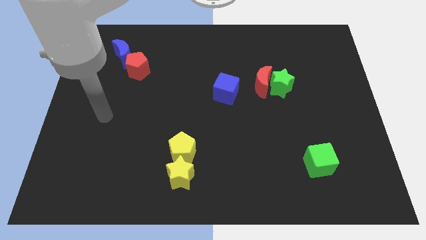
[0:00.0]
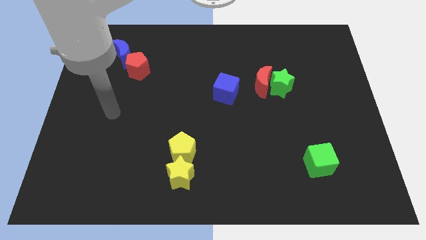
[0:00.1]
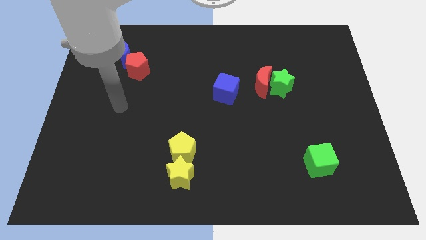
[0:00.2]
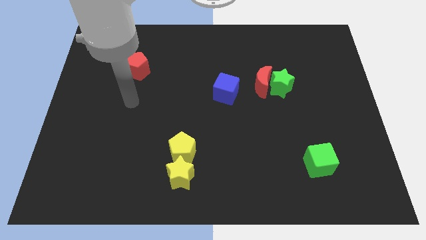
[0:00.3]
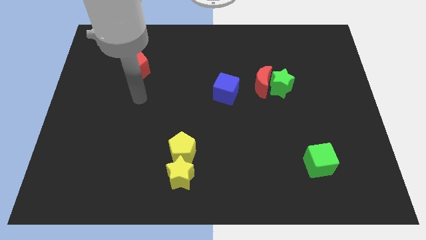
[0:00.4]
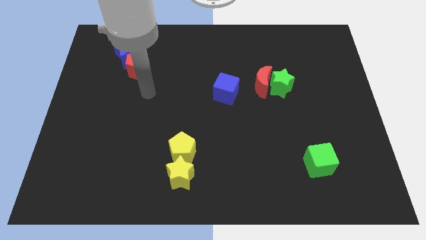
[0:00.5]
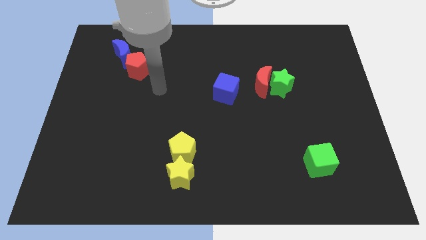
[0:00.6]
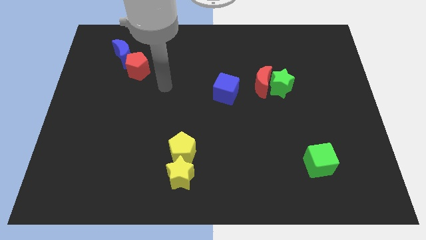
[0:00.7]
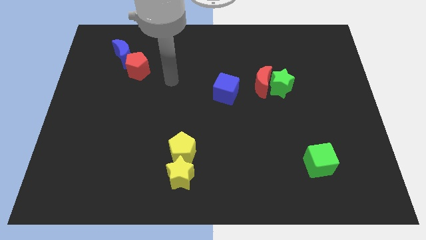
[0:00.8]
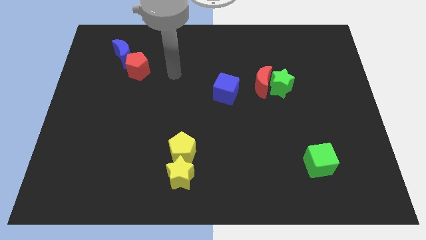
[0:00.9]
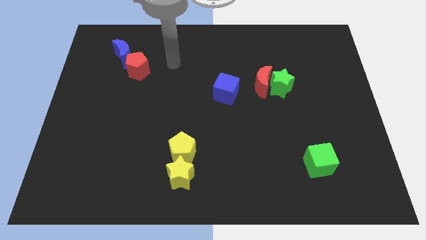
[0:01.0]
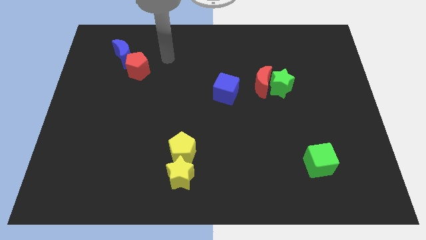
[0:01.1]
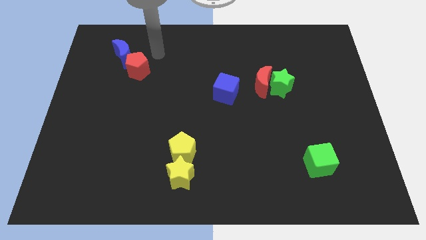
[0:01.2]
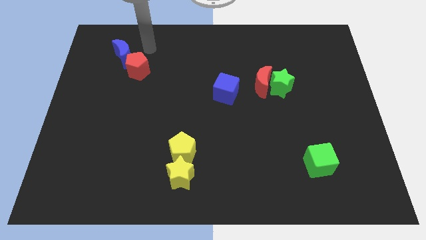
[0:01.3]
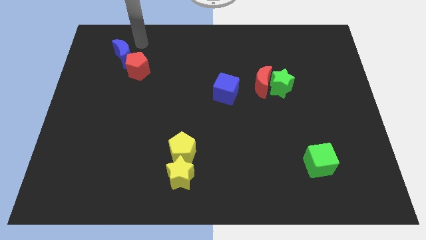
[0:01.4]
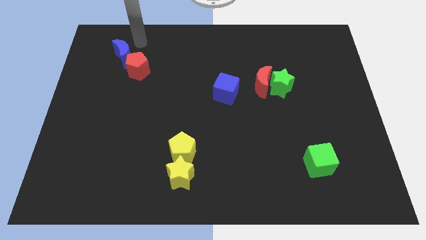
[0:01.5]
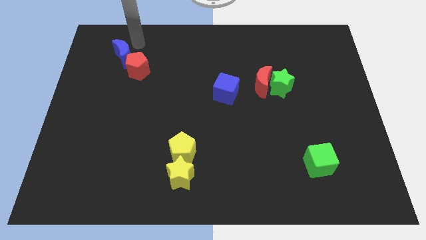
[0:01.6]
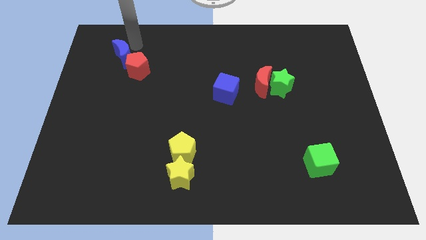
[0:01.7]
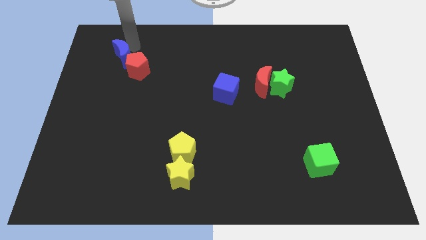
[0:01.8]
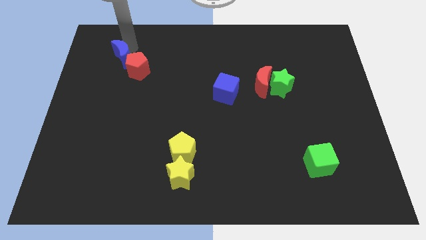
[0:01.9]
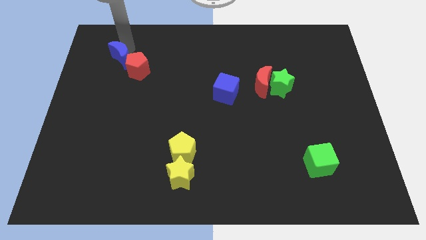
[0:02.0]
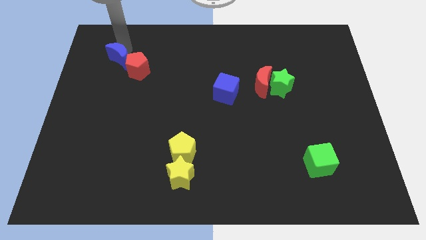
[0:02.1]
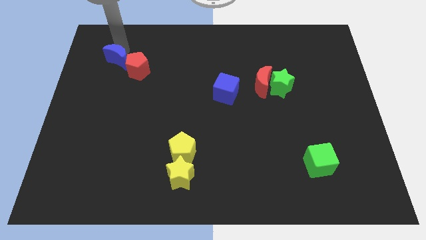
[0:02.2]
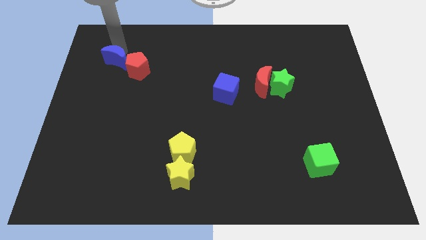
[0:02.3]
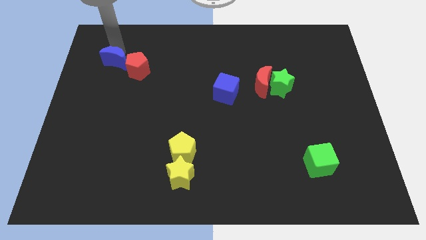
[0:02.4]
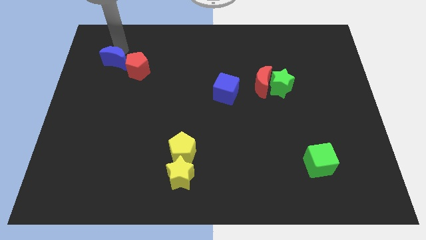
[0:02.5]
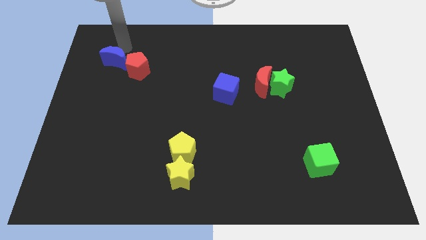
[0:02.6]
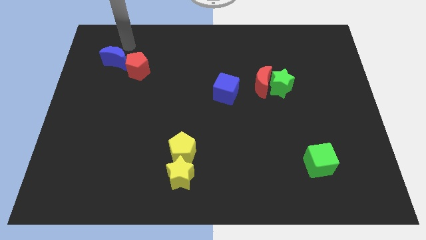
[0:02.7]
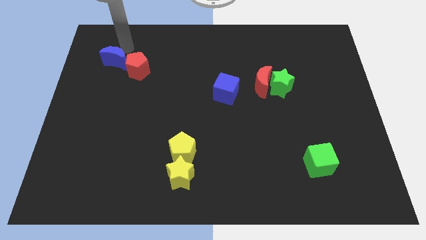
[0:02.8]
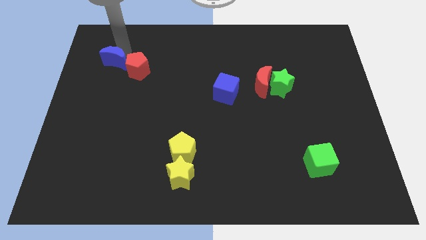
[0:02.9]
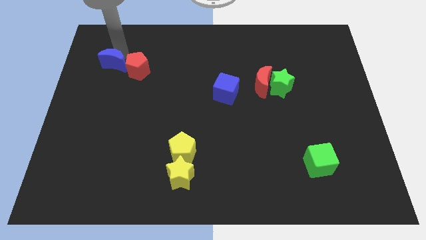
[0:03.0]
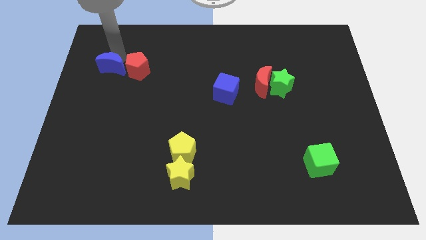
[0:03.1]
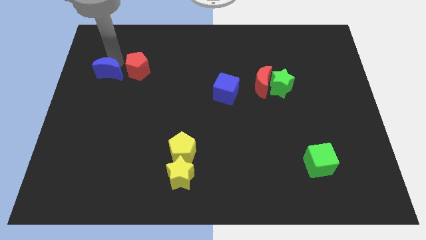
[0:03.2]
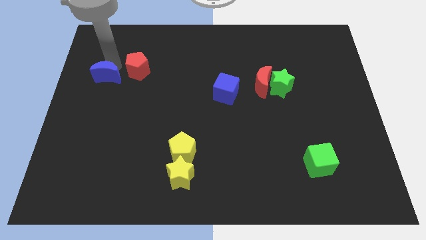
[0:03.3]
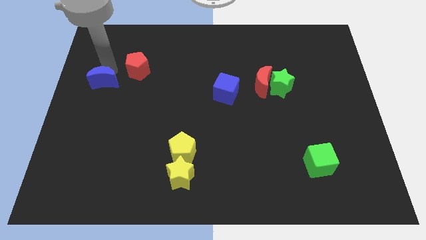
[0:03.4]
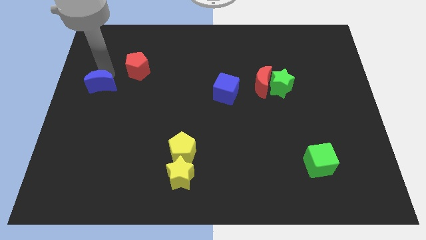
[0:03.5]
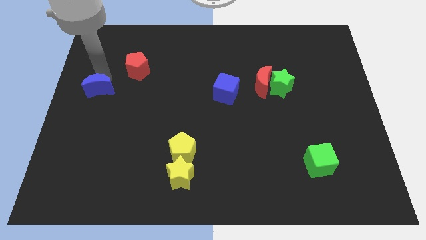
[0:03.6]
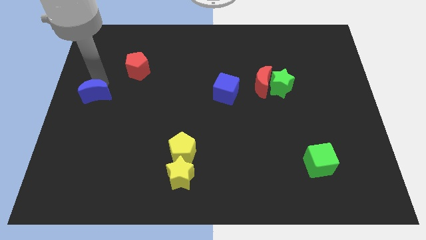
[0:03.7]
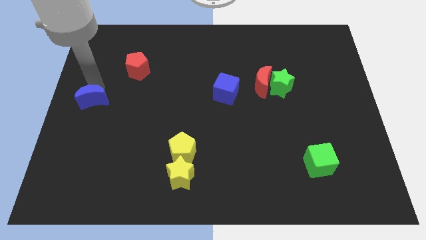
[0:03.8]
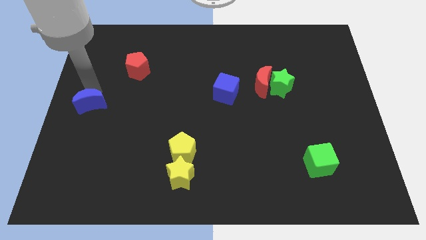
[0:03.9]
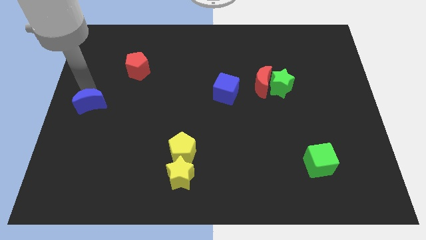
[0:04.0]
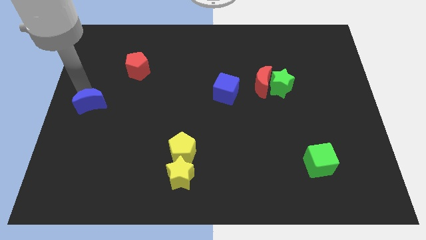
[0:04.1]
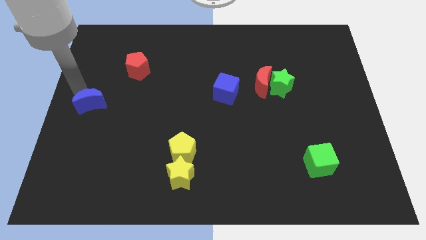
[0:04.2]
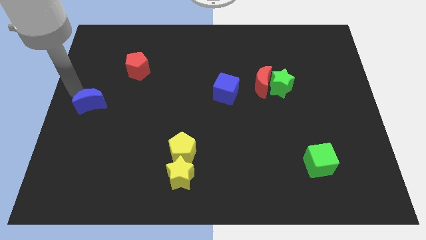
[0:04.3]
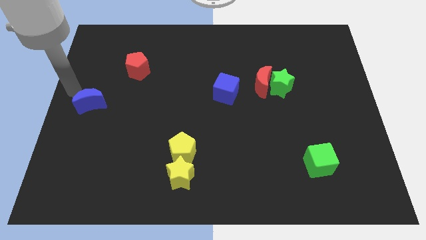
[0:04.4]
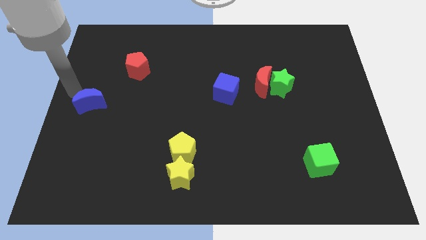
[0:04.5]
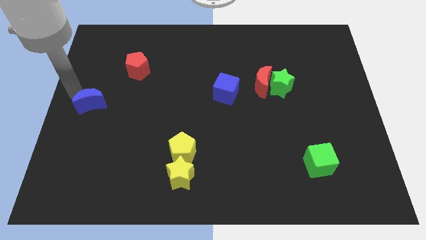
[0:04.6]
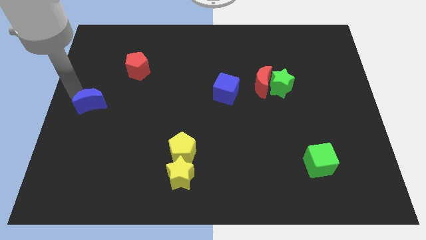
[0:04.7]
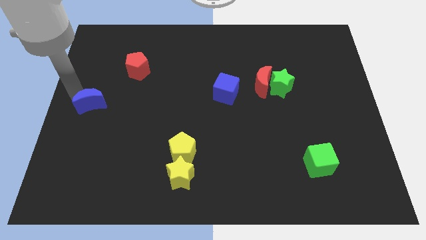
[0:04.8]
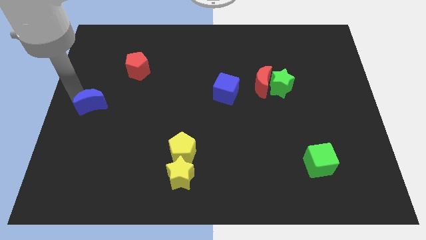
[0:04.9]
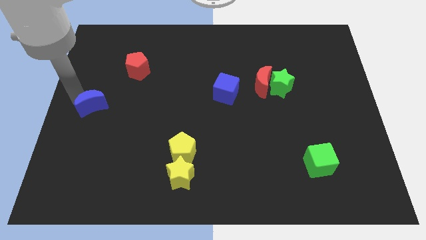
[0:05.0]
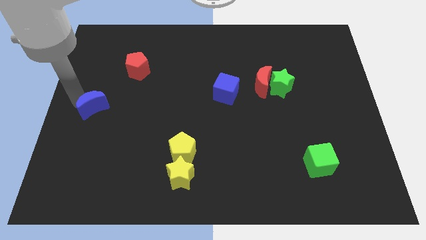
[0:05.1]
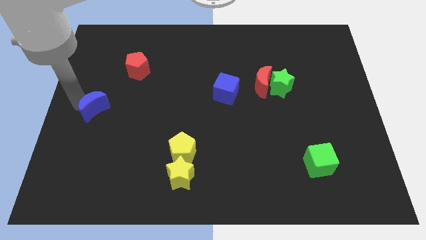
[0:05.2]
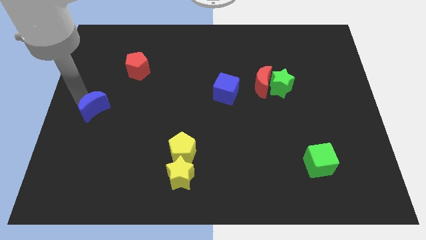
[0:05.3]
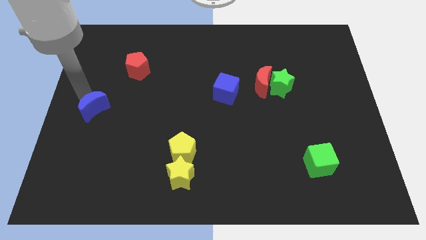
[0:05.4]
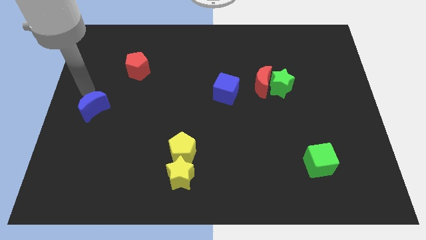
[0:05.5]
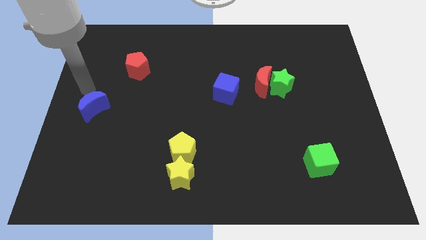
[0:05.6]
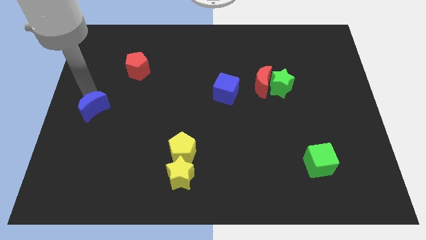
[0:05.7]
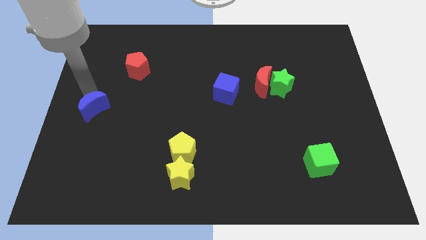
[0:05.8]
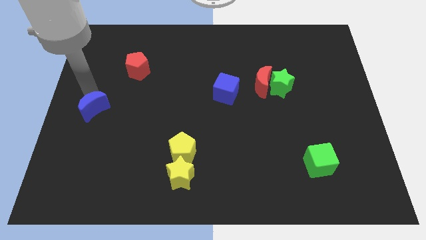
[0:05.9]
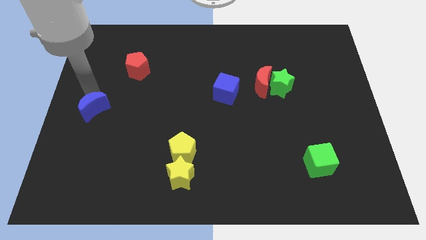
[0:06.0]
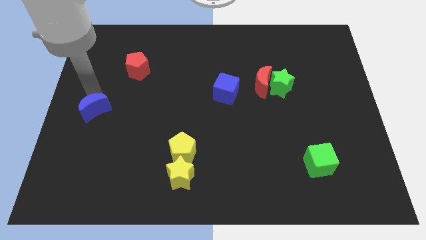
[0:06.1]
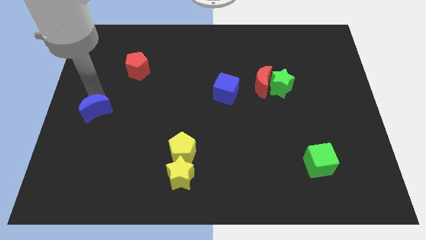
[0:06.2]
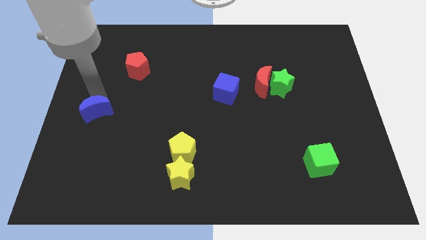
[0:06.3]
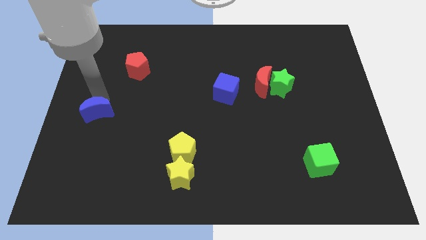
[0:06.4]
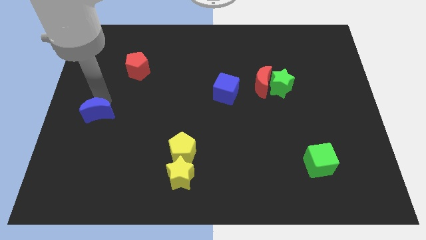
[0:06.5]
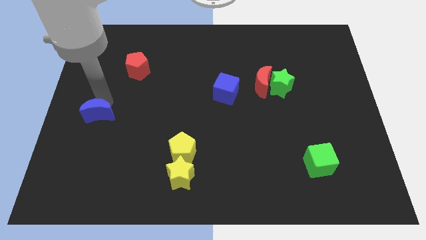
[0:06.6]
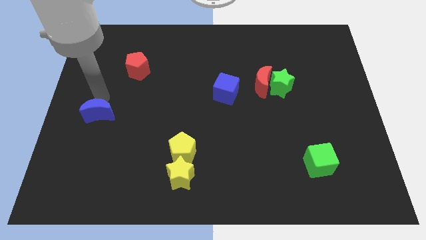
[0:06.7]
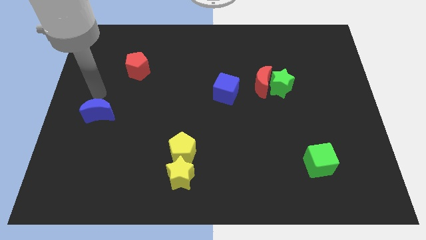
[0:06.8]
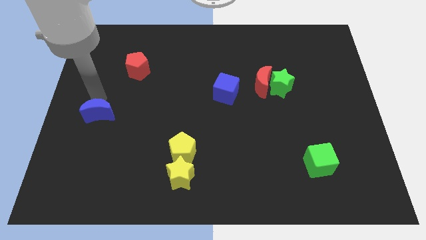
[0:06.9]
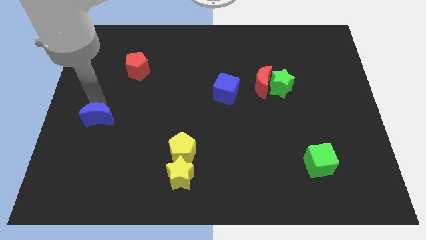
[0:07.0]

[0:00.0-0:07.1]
move the blue moon down

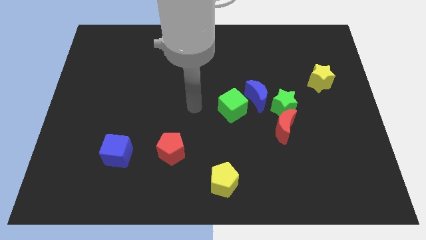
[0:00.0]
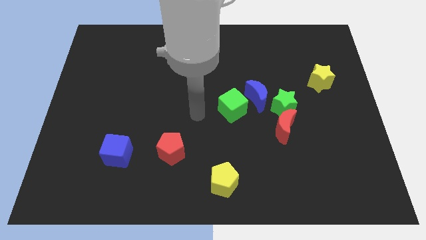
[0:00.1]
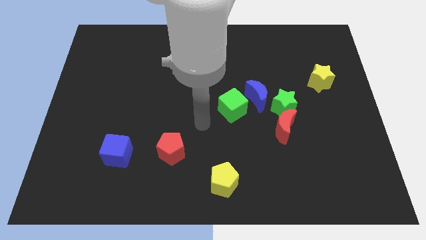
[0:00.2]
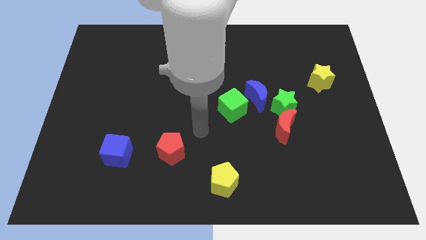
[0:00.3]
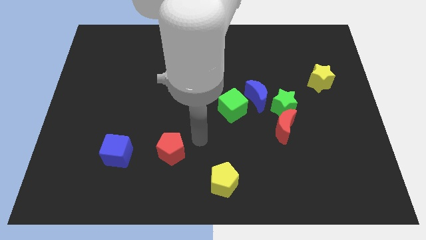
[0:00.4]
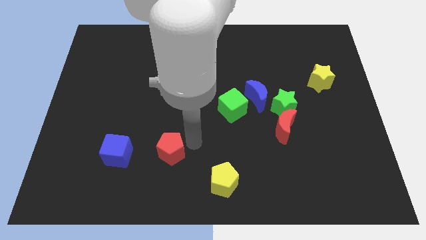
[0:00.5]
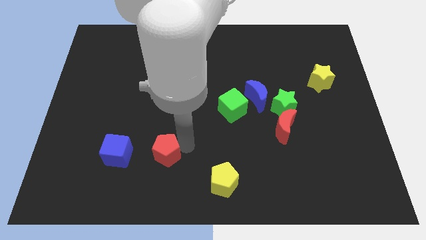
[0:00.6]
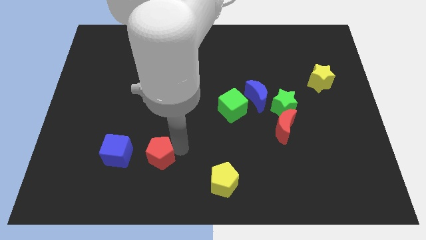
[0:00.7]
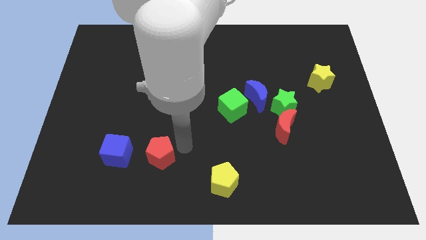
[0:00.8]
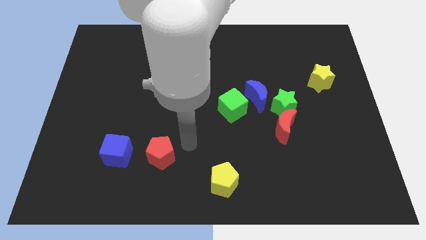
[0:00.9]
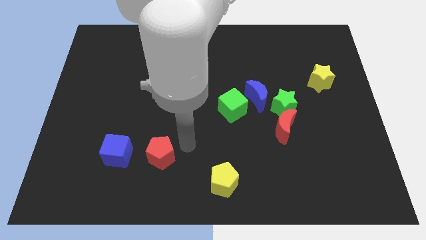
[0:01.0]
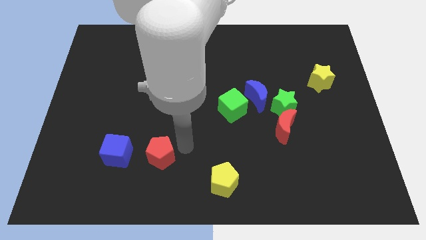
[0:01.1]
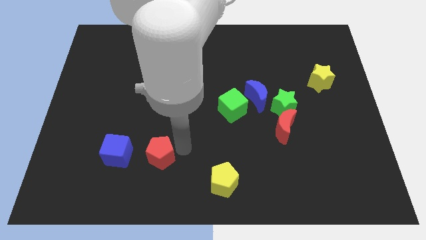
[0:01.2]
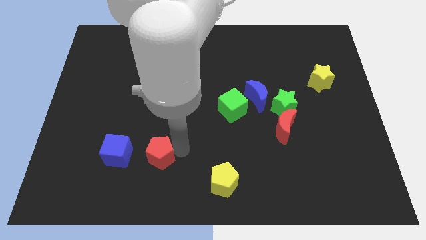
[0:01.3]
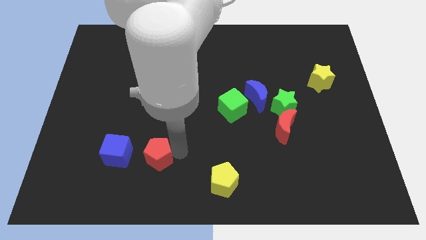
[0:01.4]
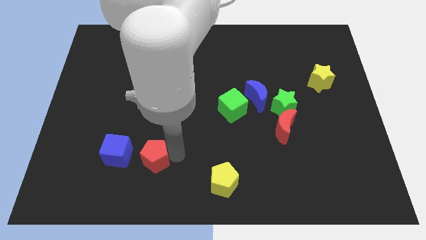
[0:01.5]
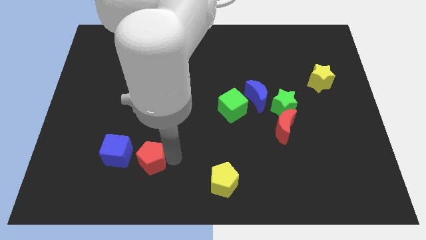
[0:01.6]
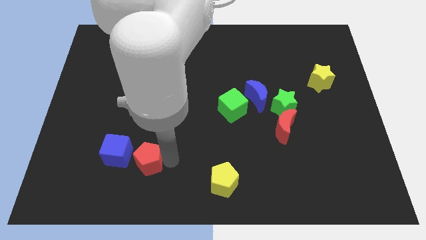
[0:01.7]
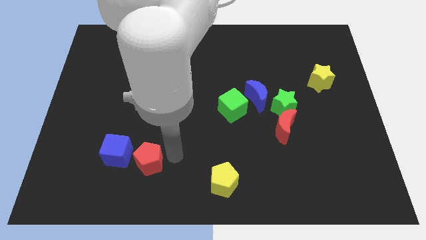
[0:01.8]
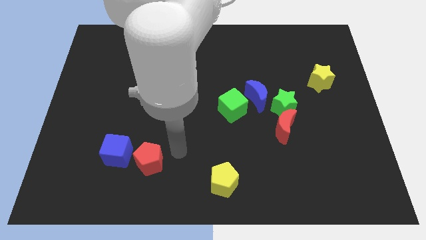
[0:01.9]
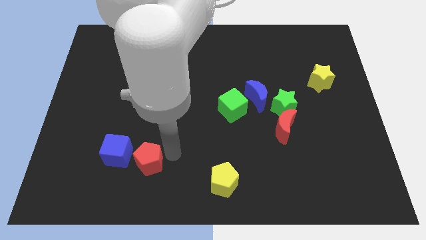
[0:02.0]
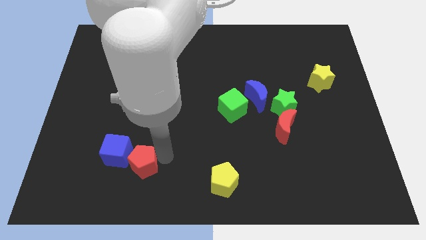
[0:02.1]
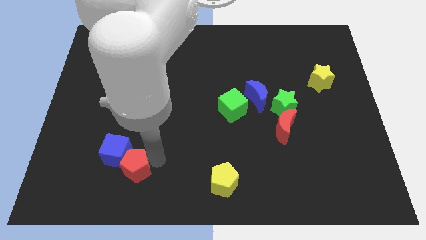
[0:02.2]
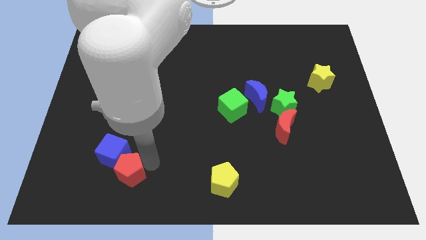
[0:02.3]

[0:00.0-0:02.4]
slide the red pentagon to the left a little bit
